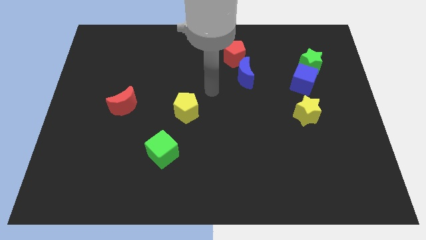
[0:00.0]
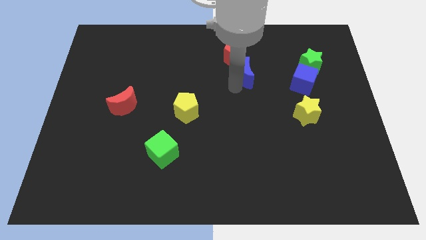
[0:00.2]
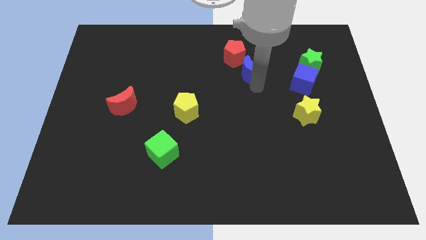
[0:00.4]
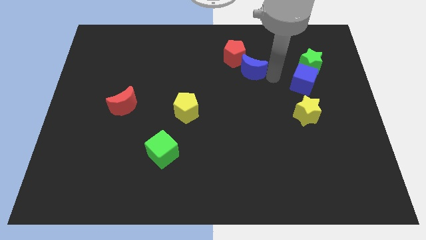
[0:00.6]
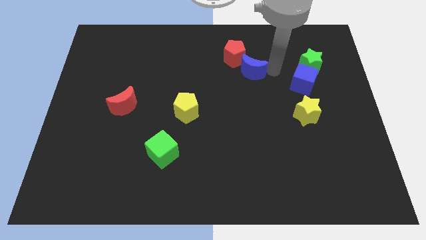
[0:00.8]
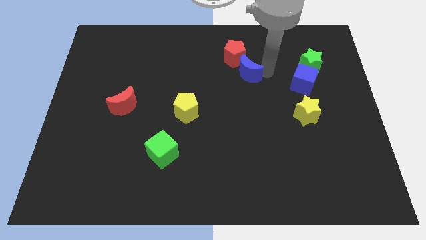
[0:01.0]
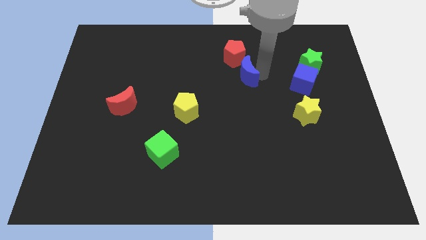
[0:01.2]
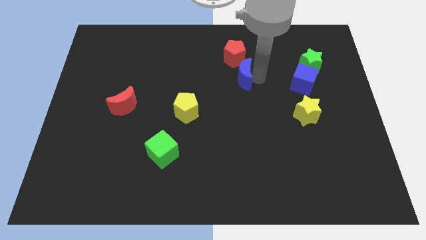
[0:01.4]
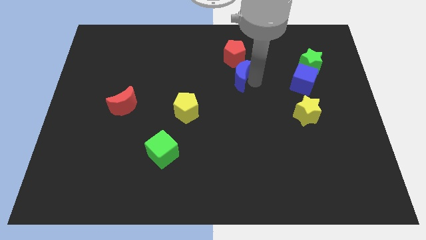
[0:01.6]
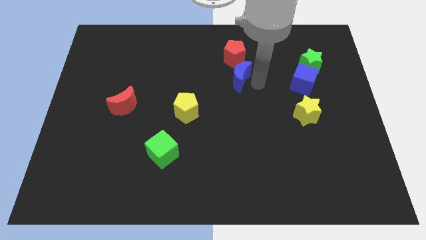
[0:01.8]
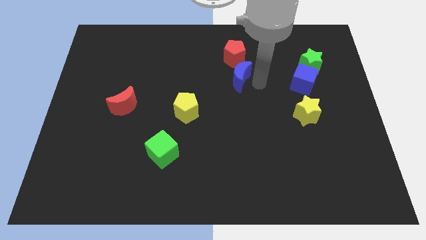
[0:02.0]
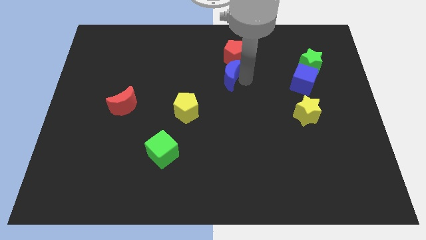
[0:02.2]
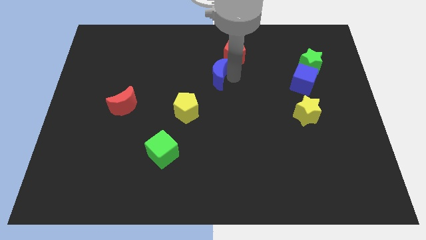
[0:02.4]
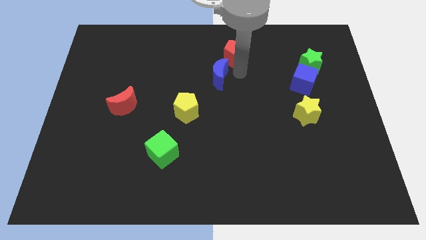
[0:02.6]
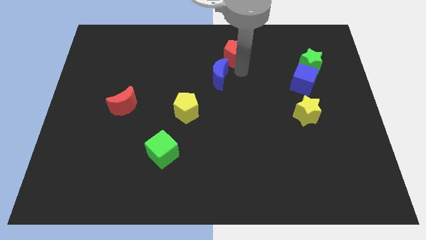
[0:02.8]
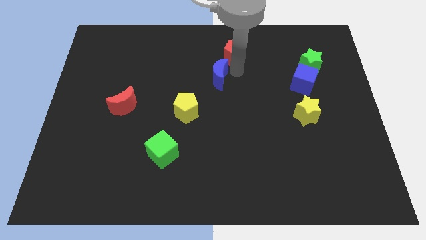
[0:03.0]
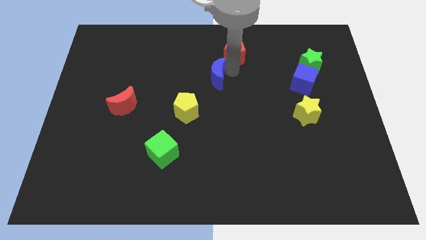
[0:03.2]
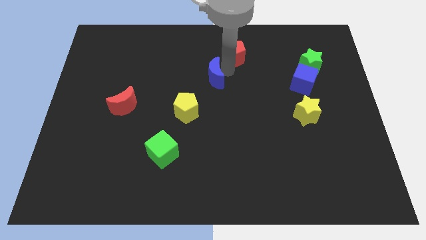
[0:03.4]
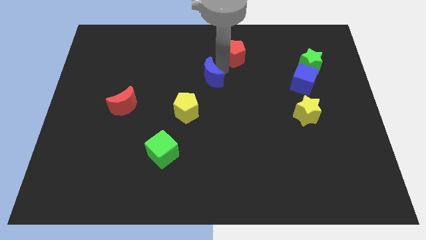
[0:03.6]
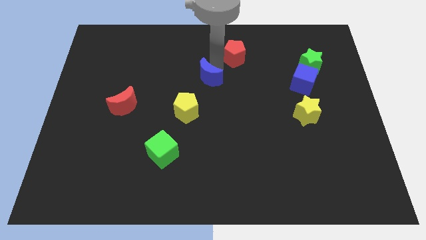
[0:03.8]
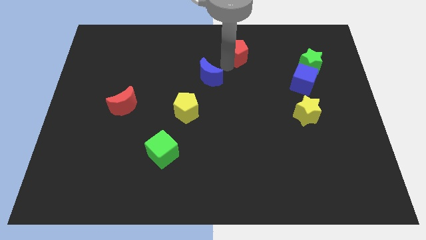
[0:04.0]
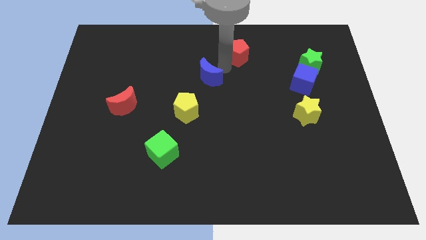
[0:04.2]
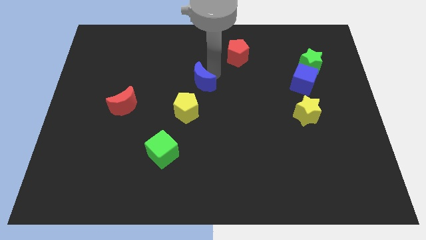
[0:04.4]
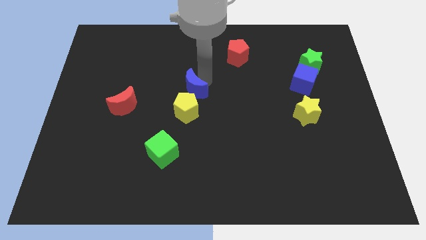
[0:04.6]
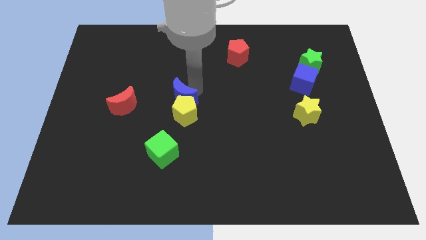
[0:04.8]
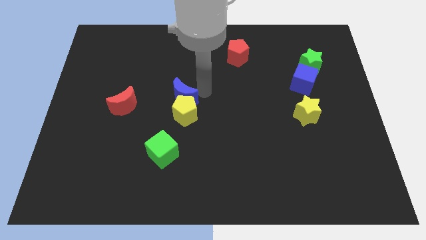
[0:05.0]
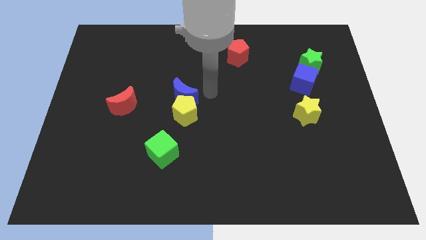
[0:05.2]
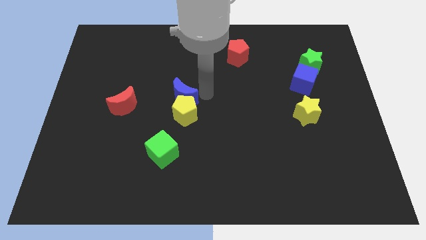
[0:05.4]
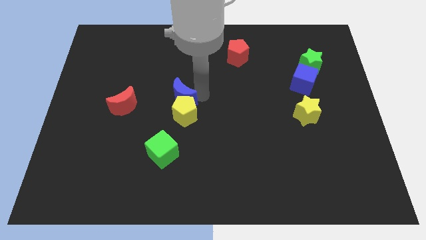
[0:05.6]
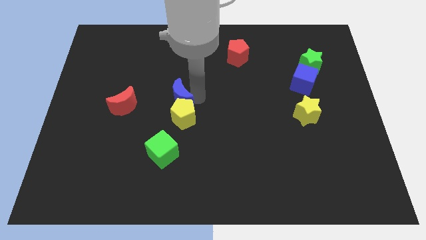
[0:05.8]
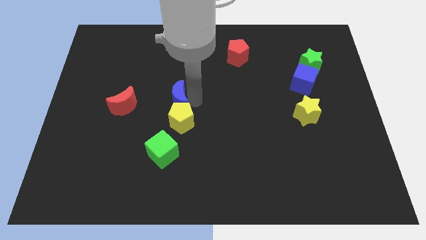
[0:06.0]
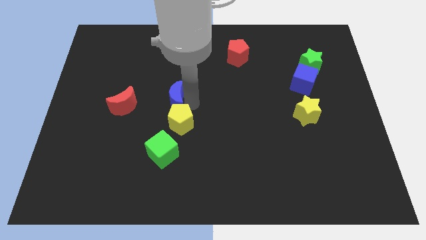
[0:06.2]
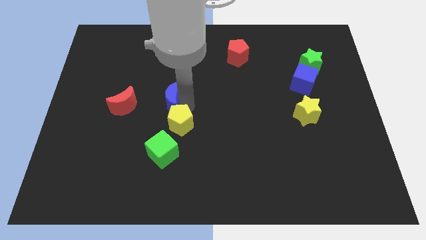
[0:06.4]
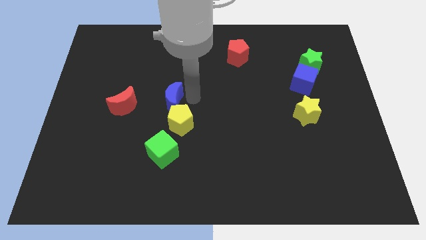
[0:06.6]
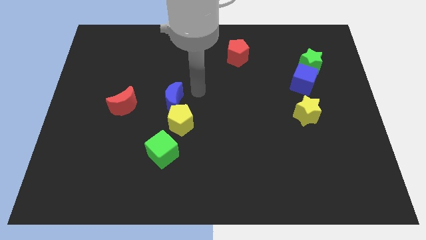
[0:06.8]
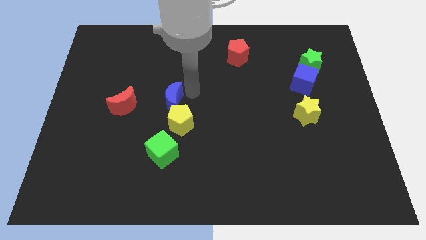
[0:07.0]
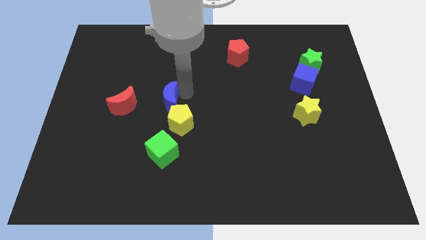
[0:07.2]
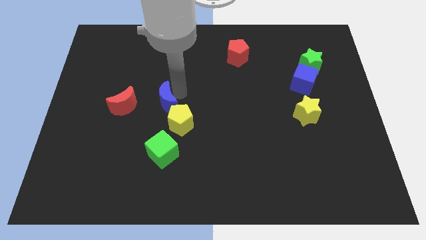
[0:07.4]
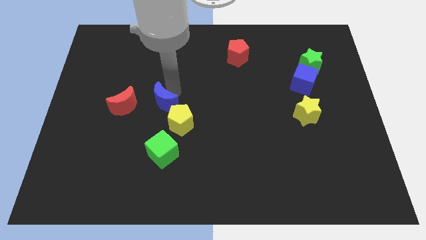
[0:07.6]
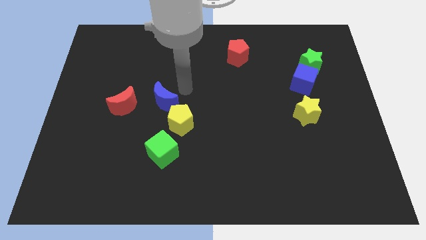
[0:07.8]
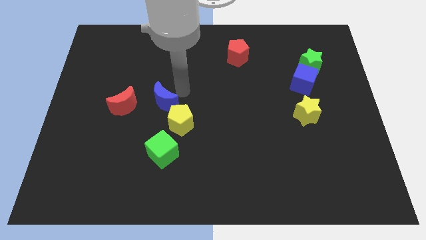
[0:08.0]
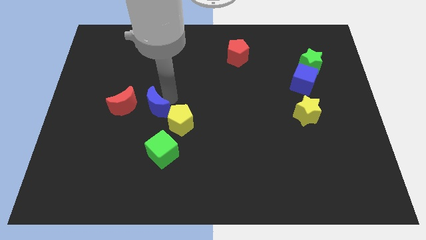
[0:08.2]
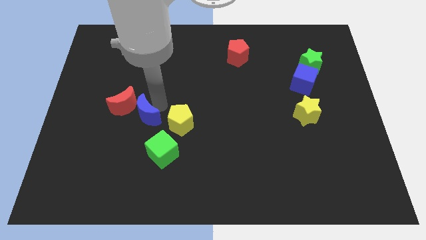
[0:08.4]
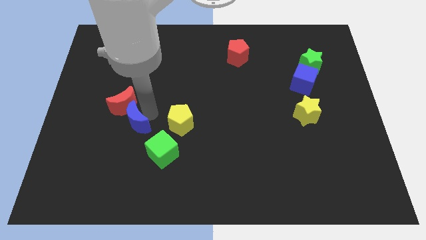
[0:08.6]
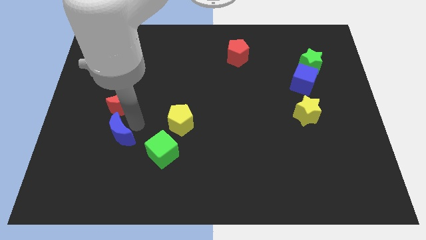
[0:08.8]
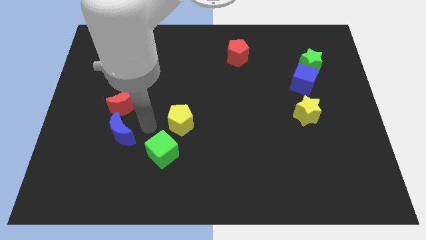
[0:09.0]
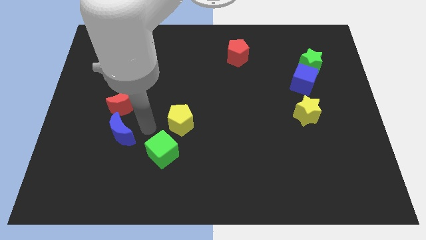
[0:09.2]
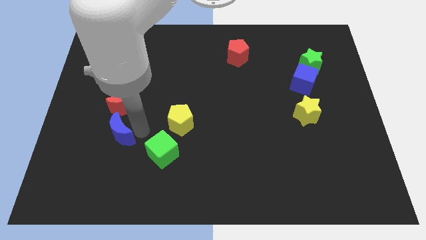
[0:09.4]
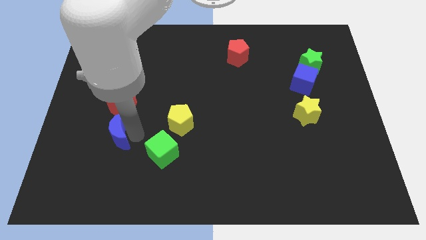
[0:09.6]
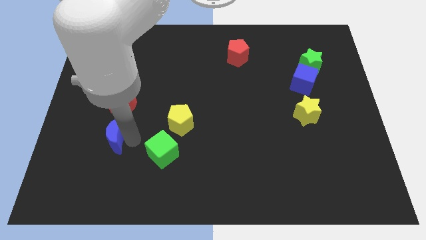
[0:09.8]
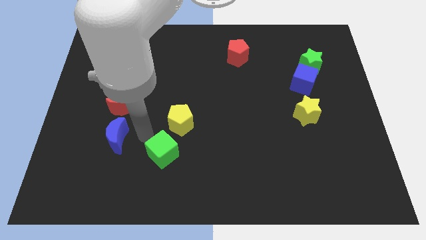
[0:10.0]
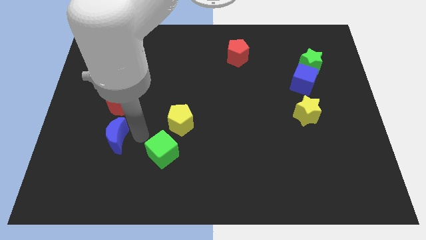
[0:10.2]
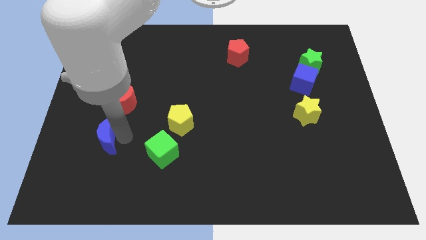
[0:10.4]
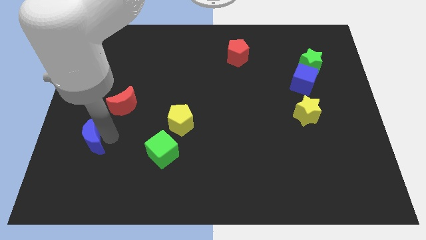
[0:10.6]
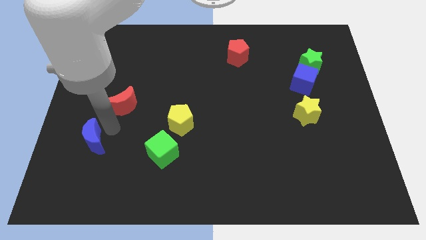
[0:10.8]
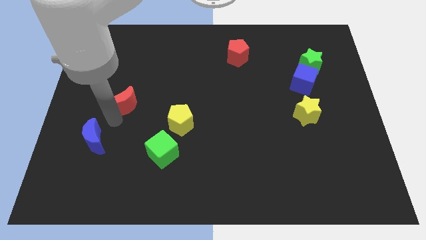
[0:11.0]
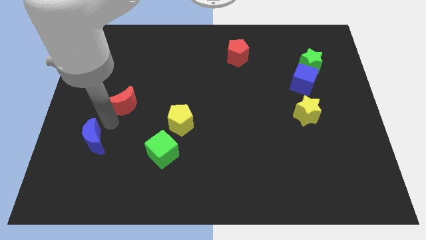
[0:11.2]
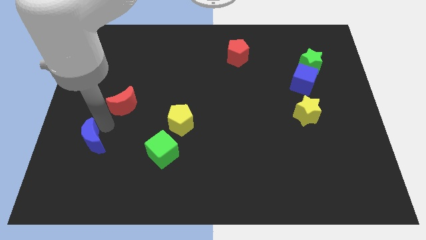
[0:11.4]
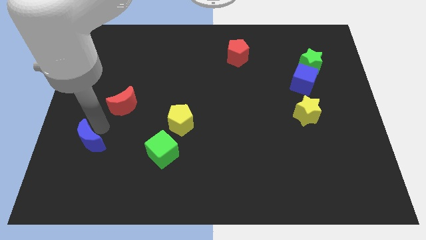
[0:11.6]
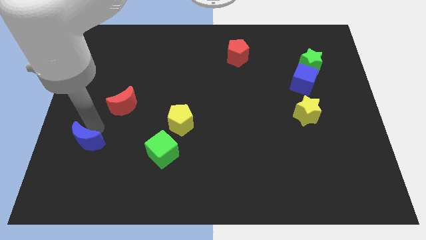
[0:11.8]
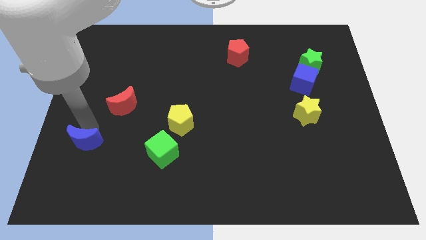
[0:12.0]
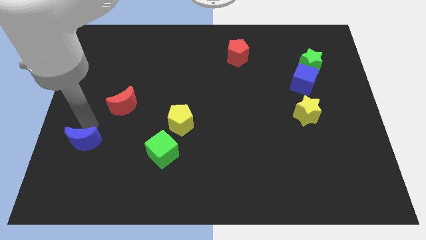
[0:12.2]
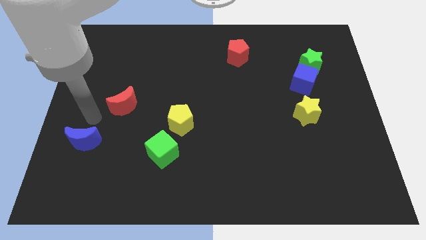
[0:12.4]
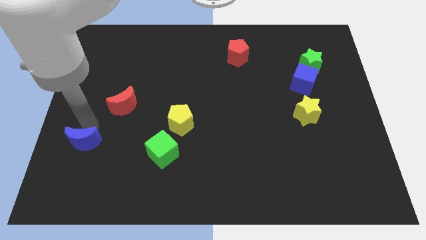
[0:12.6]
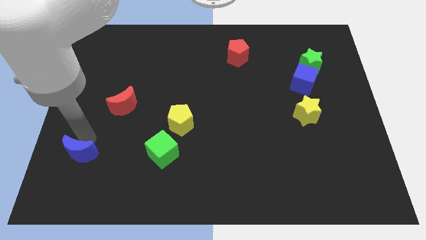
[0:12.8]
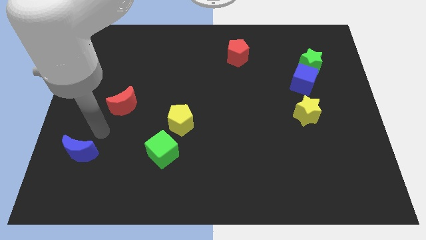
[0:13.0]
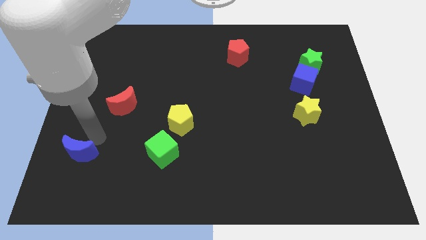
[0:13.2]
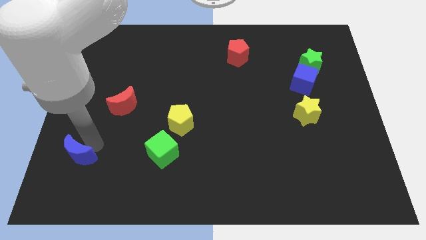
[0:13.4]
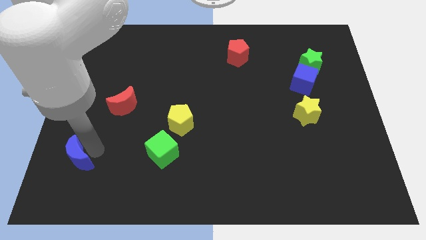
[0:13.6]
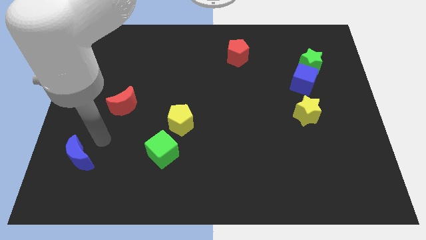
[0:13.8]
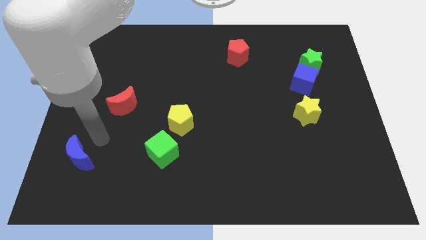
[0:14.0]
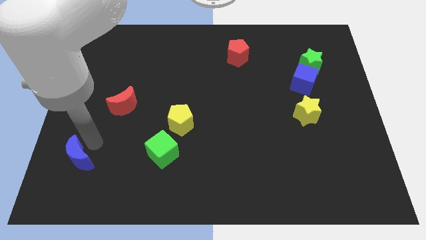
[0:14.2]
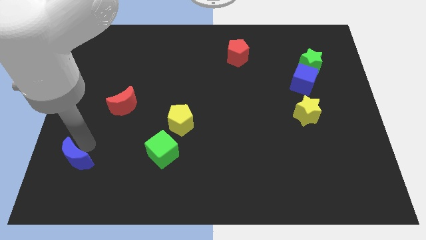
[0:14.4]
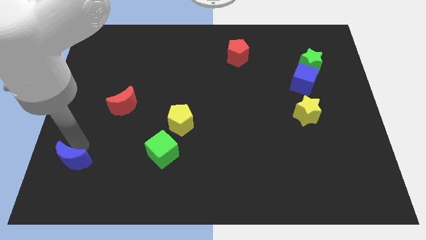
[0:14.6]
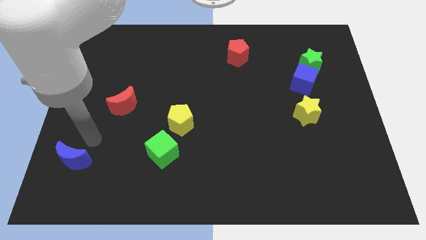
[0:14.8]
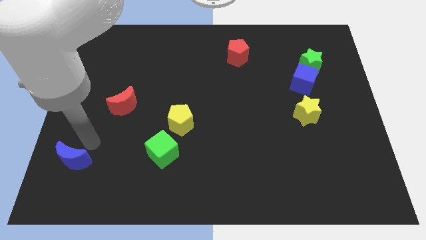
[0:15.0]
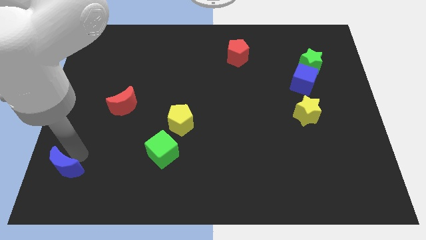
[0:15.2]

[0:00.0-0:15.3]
push the blue moon to the bottom left of the board
